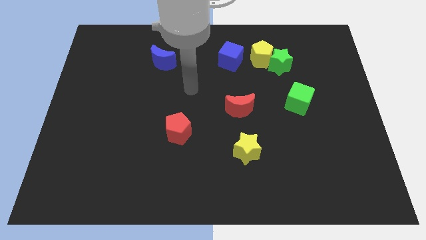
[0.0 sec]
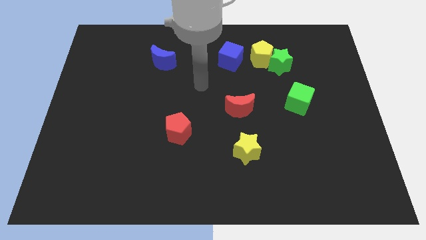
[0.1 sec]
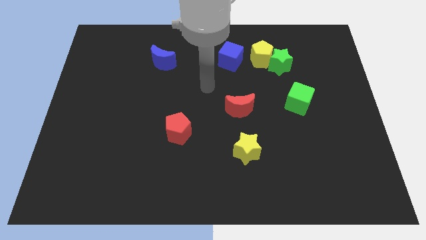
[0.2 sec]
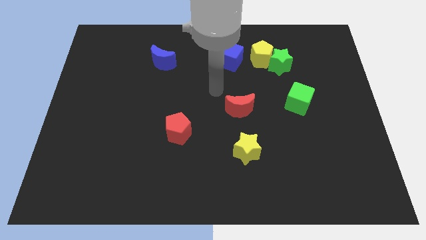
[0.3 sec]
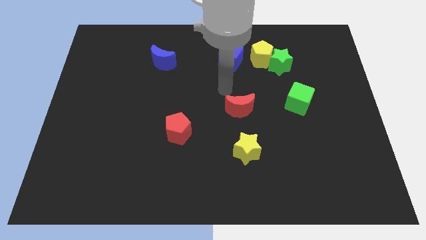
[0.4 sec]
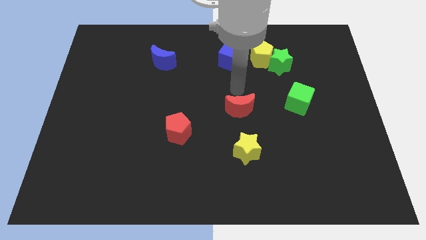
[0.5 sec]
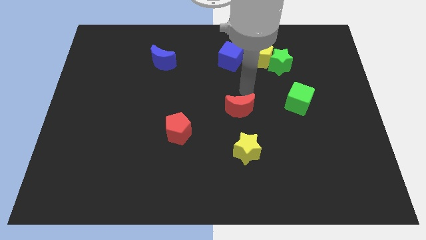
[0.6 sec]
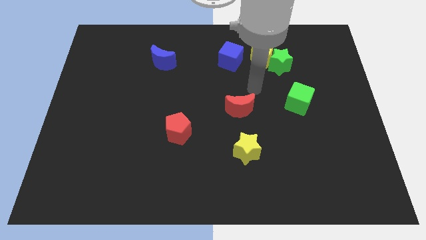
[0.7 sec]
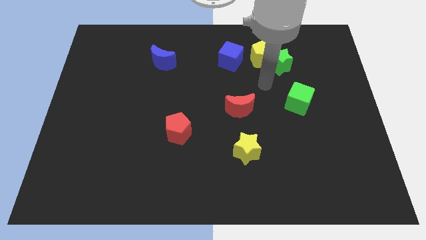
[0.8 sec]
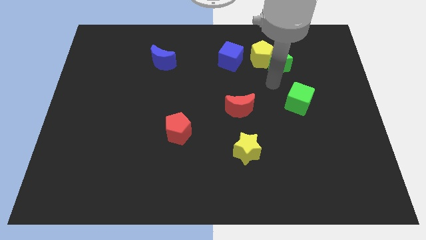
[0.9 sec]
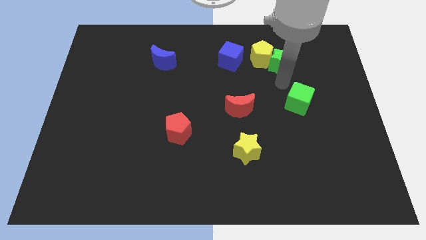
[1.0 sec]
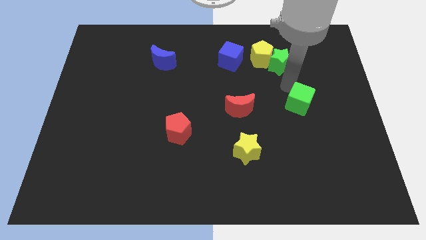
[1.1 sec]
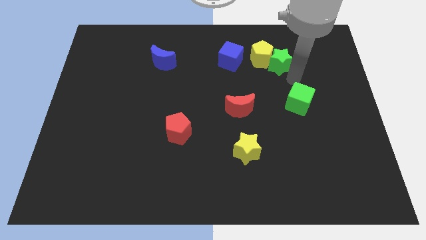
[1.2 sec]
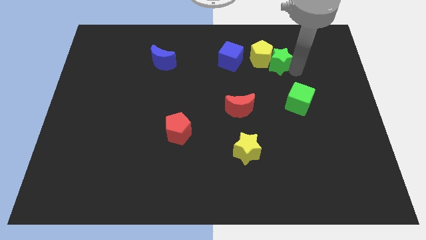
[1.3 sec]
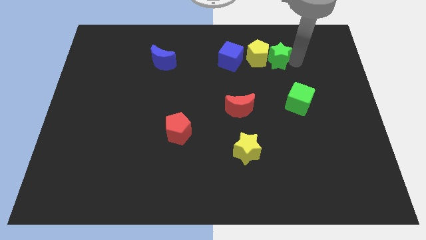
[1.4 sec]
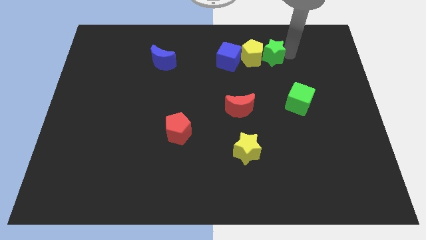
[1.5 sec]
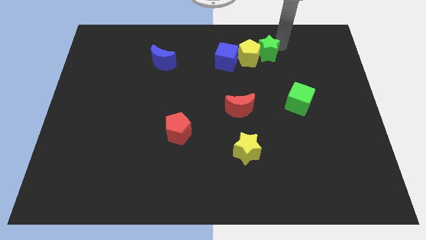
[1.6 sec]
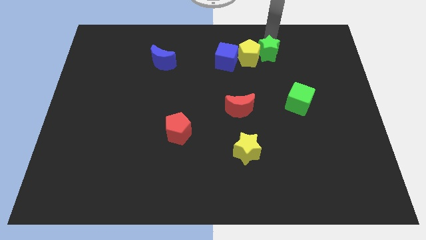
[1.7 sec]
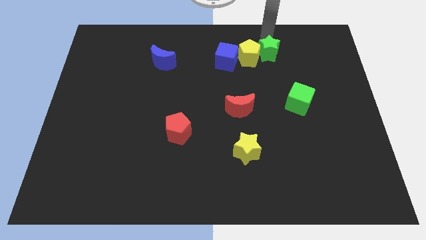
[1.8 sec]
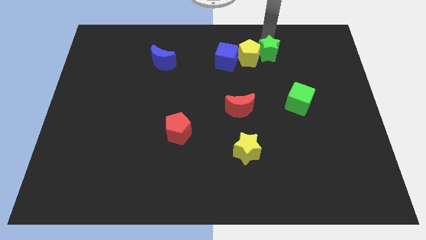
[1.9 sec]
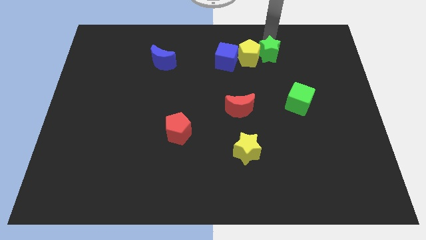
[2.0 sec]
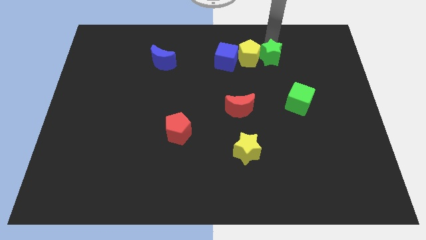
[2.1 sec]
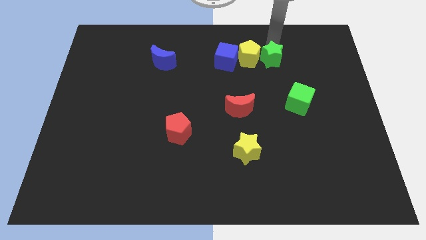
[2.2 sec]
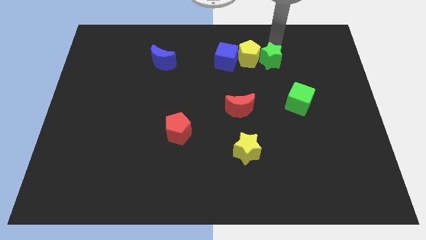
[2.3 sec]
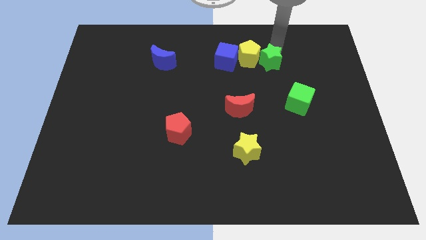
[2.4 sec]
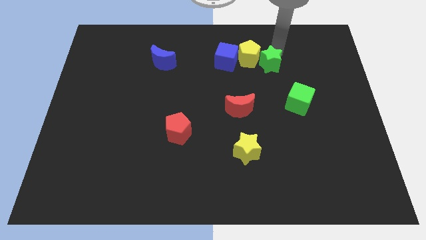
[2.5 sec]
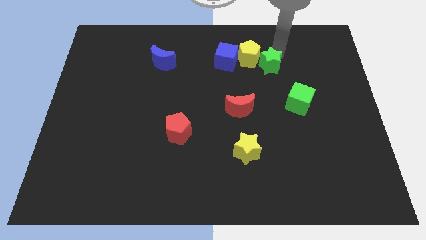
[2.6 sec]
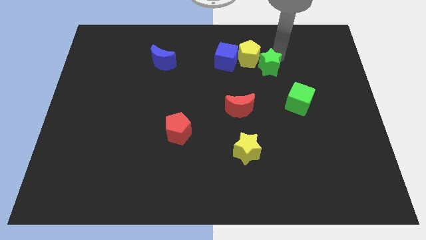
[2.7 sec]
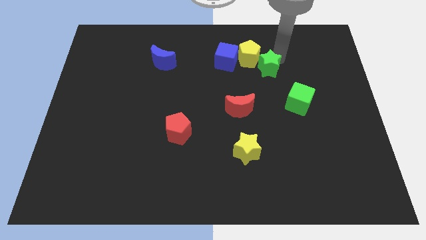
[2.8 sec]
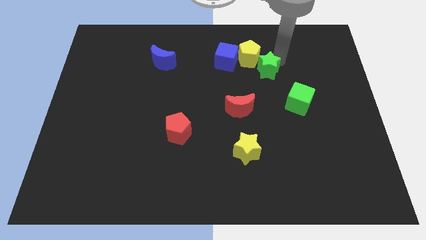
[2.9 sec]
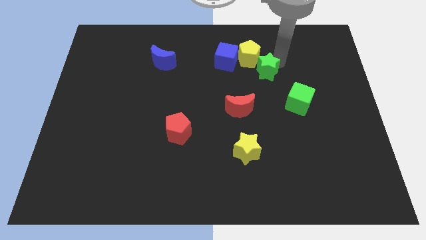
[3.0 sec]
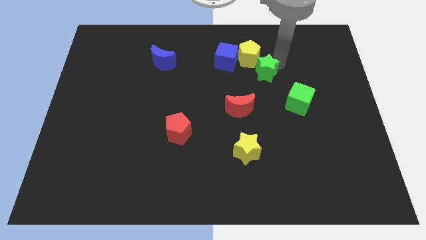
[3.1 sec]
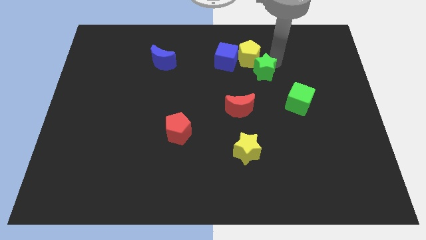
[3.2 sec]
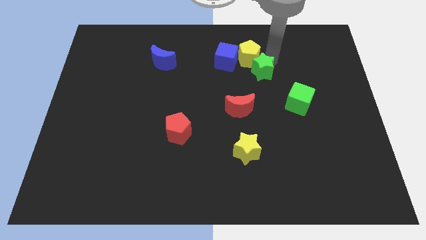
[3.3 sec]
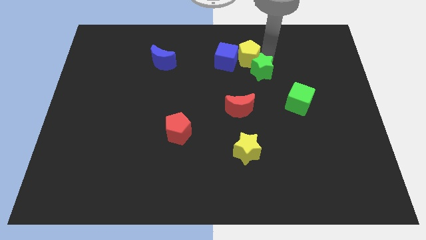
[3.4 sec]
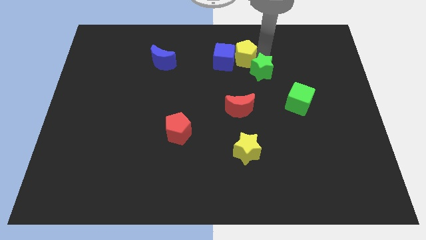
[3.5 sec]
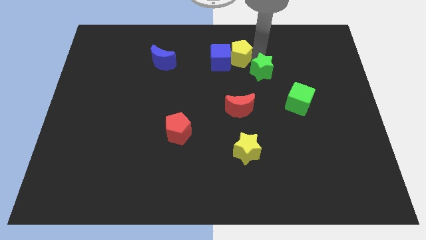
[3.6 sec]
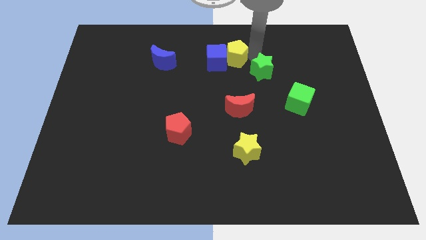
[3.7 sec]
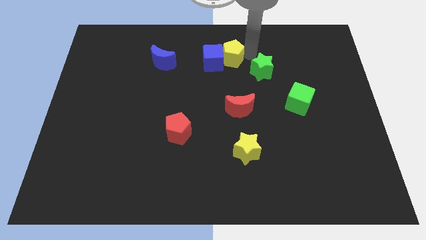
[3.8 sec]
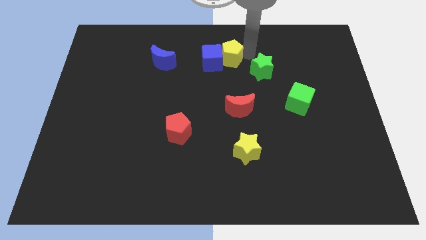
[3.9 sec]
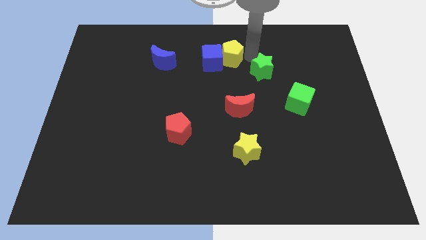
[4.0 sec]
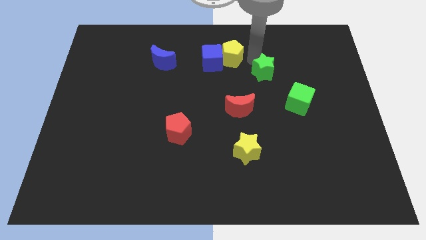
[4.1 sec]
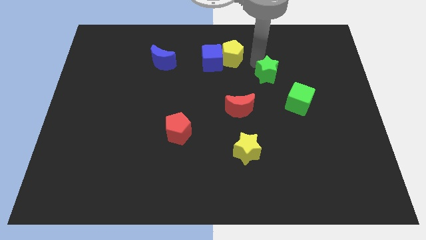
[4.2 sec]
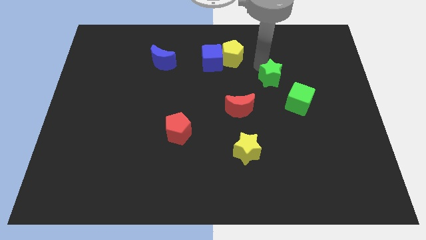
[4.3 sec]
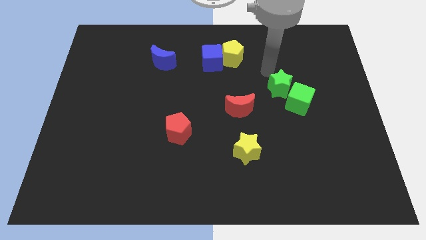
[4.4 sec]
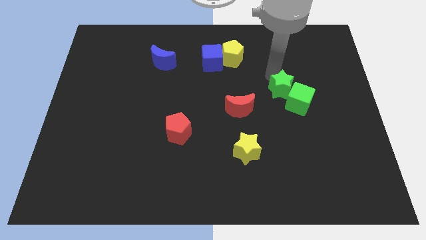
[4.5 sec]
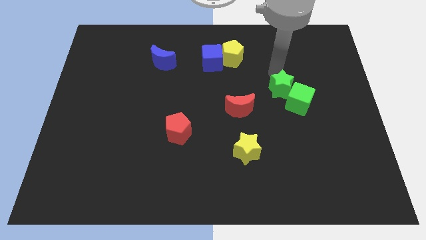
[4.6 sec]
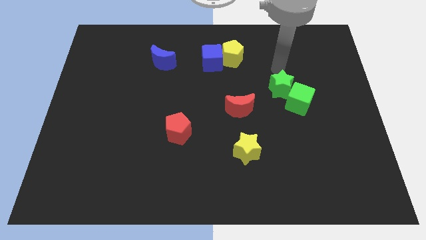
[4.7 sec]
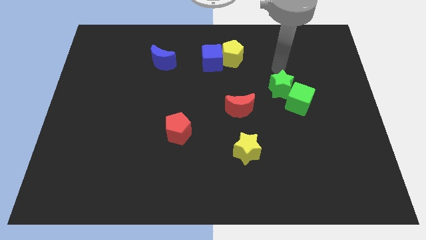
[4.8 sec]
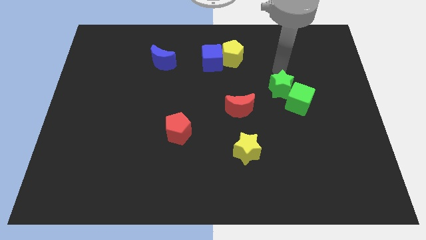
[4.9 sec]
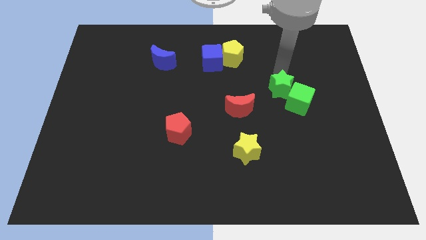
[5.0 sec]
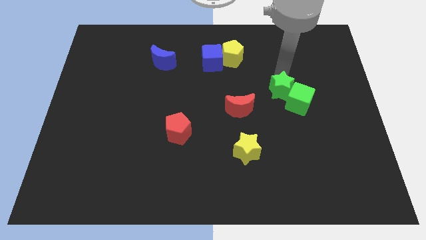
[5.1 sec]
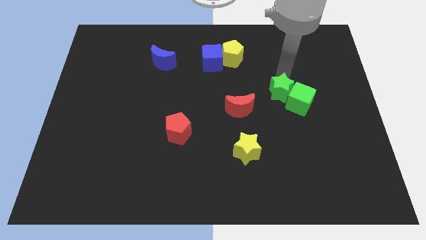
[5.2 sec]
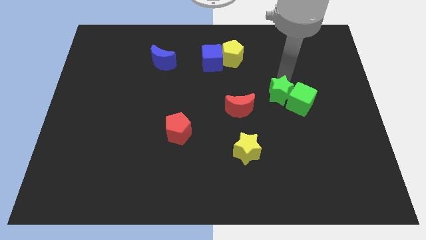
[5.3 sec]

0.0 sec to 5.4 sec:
push the green star just right of the red moon

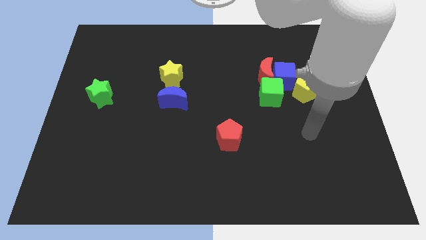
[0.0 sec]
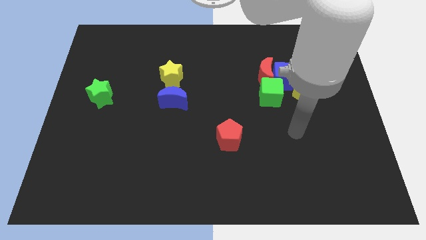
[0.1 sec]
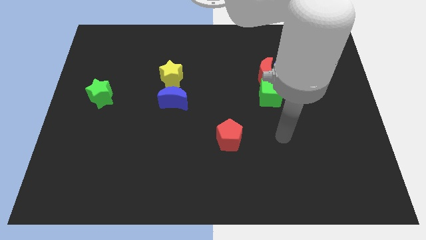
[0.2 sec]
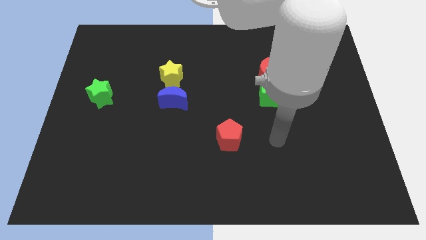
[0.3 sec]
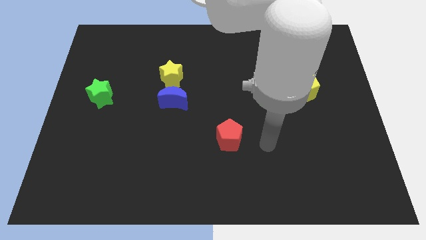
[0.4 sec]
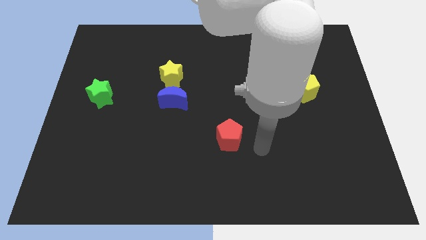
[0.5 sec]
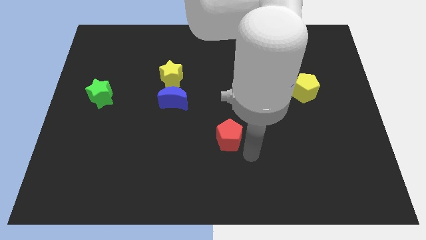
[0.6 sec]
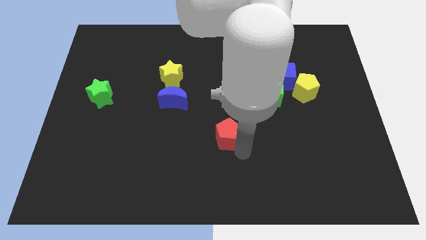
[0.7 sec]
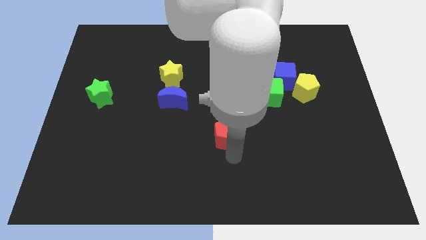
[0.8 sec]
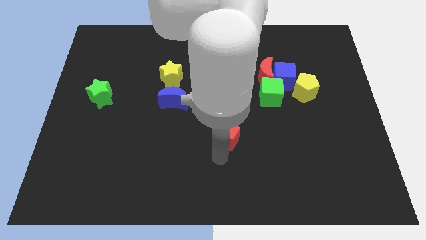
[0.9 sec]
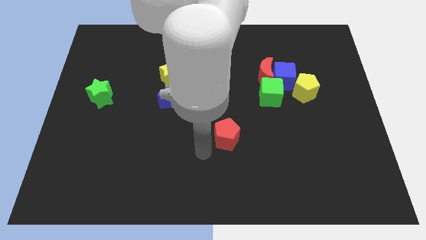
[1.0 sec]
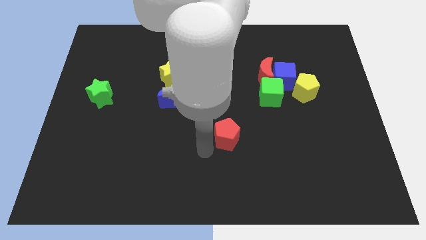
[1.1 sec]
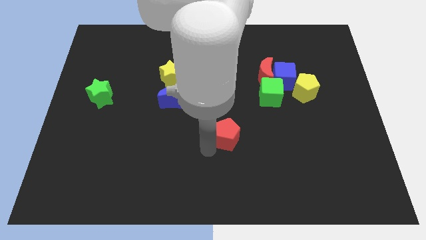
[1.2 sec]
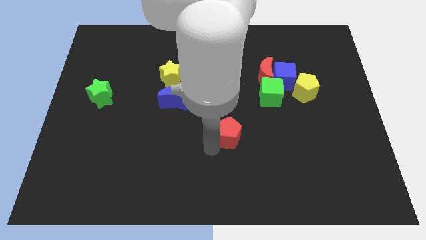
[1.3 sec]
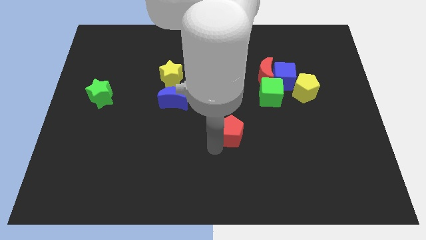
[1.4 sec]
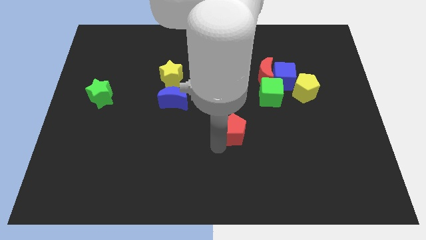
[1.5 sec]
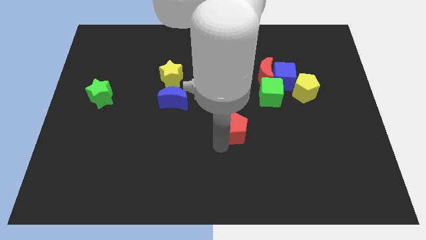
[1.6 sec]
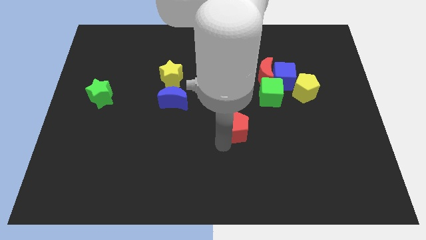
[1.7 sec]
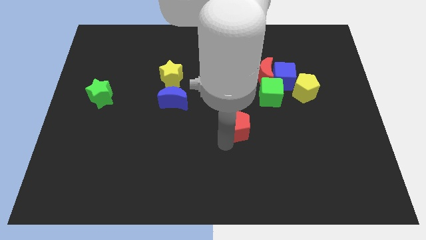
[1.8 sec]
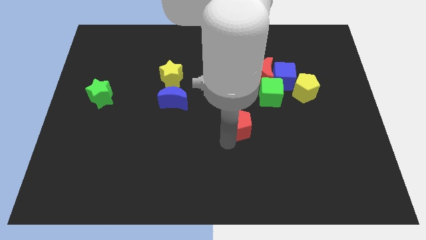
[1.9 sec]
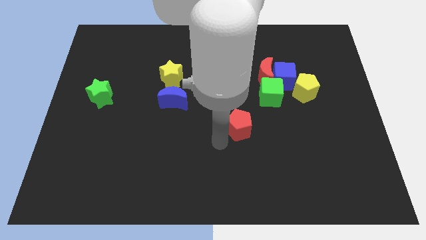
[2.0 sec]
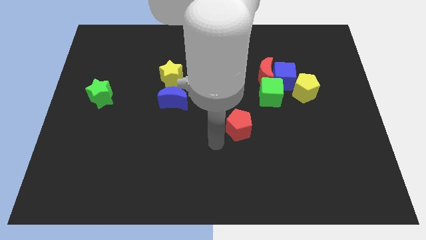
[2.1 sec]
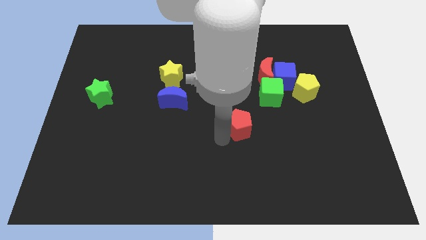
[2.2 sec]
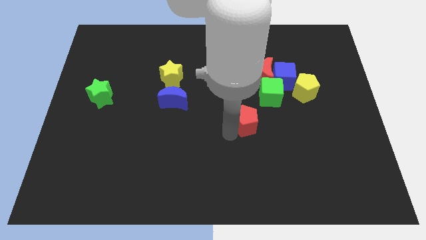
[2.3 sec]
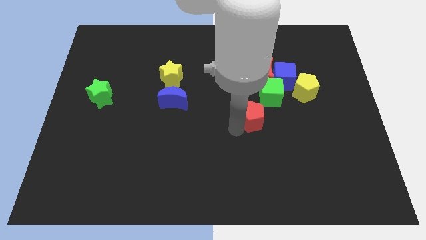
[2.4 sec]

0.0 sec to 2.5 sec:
move the red pentagon below the red moon
